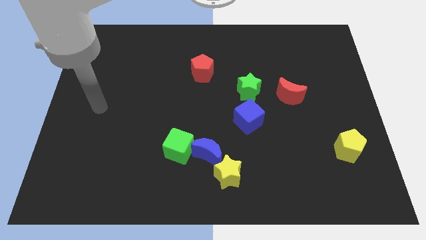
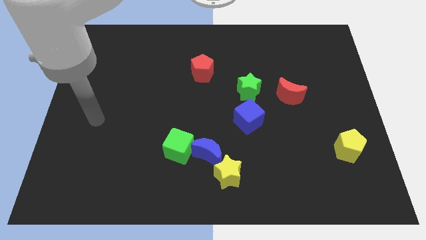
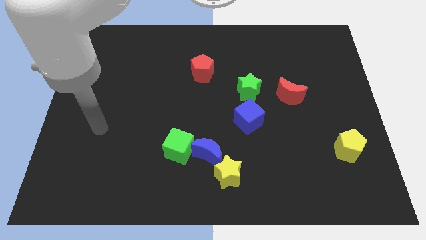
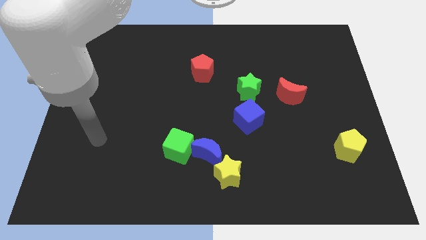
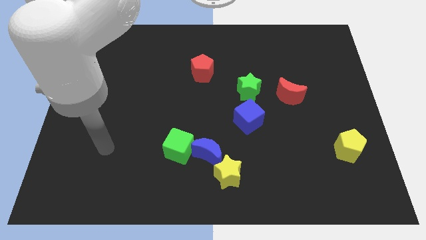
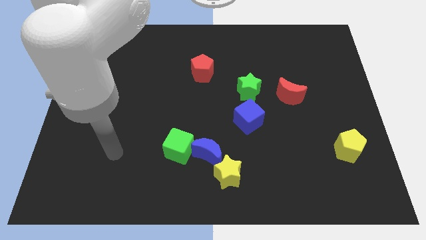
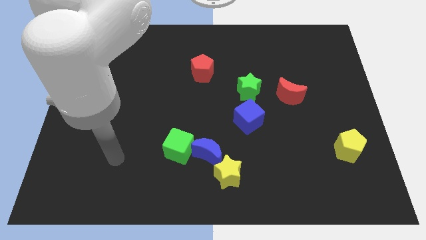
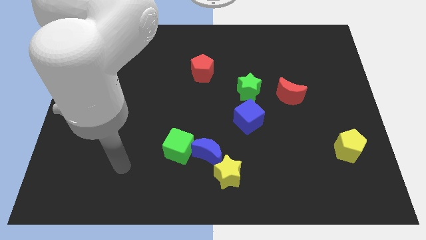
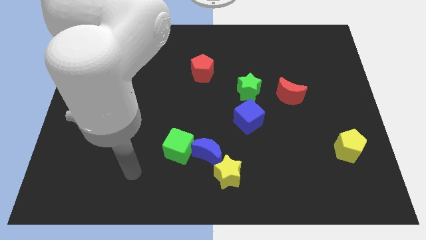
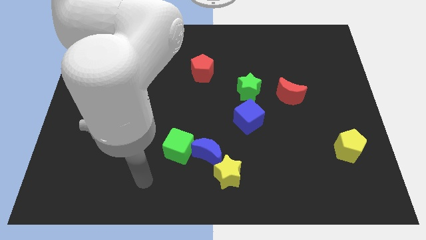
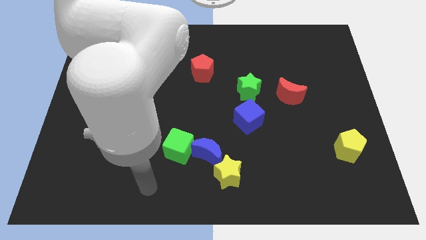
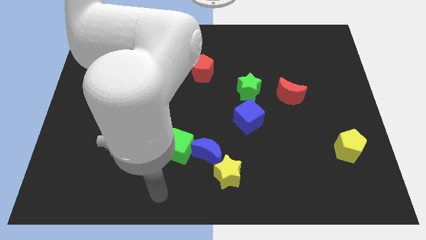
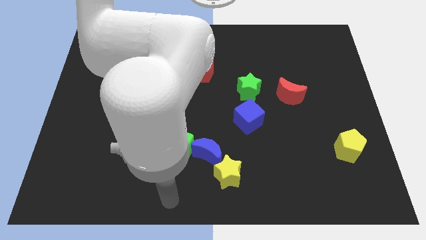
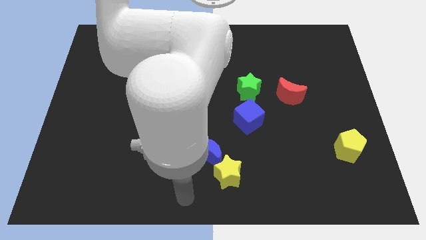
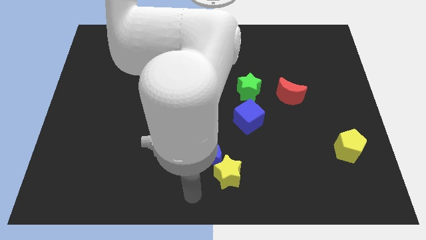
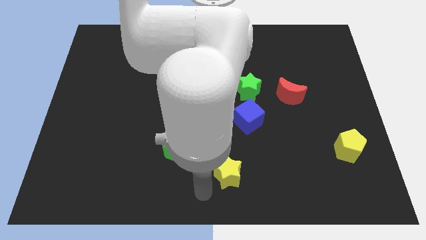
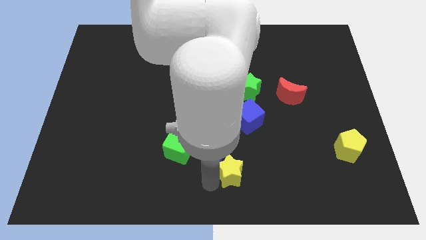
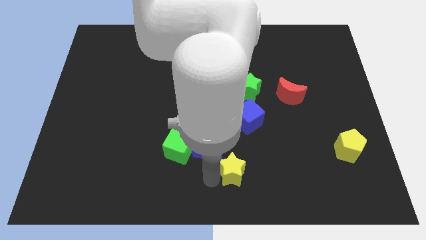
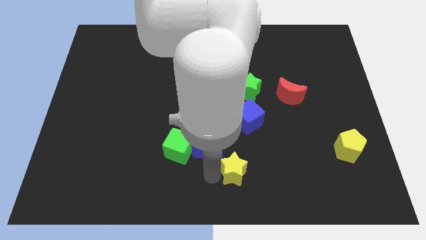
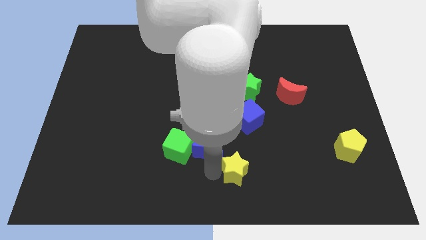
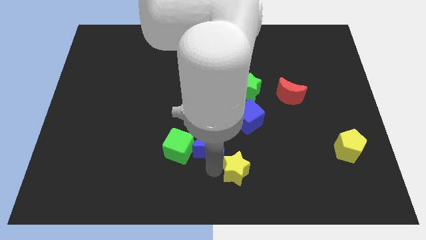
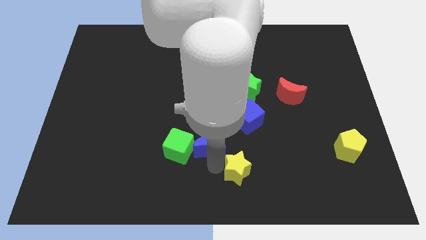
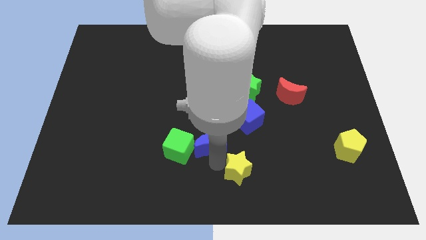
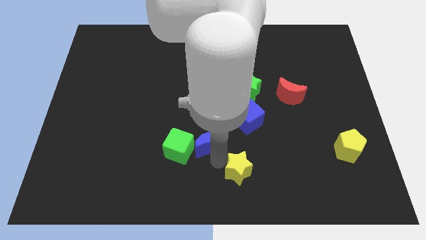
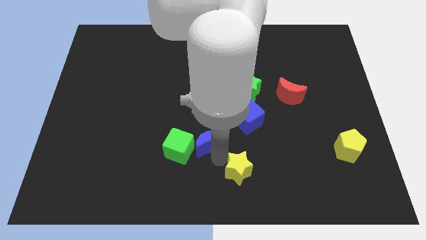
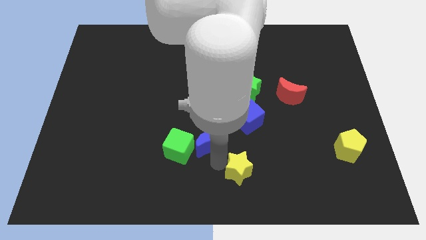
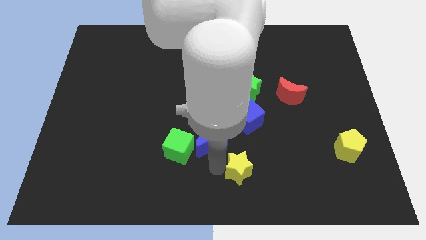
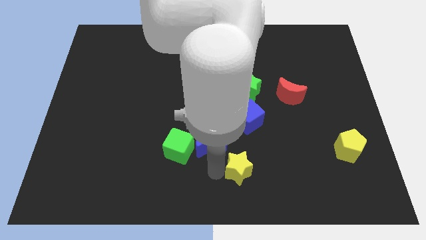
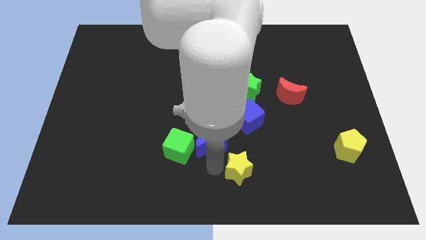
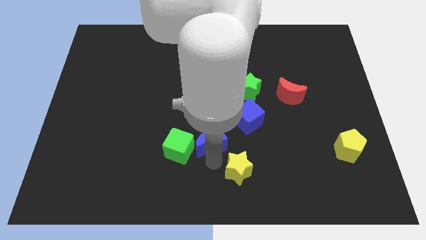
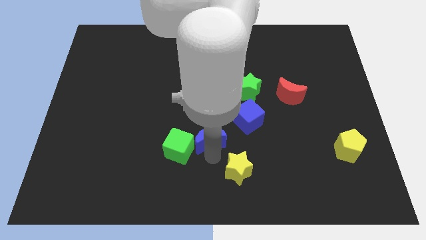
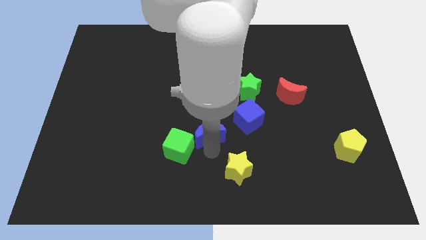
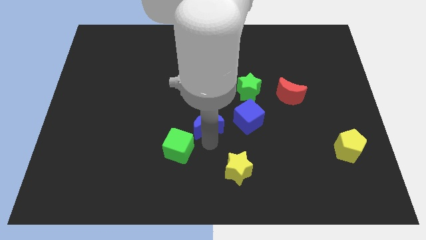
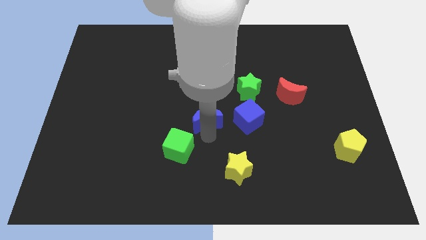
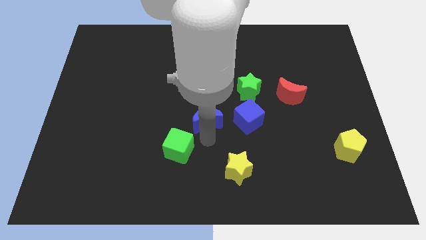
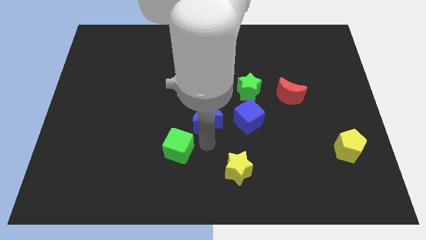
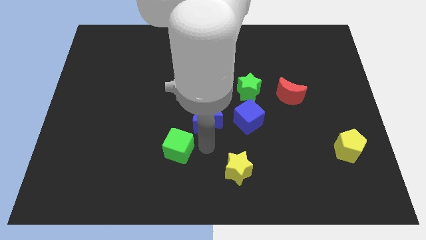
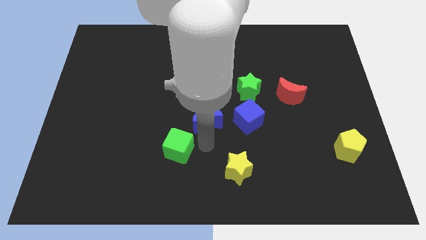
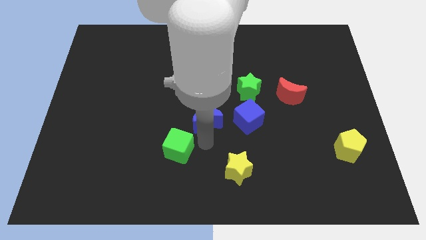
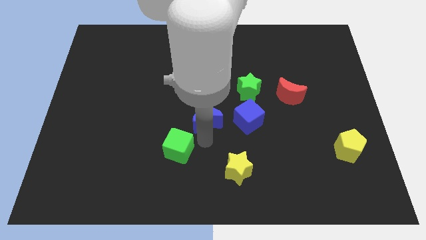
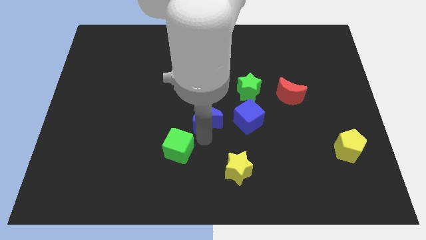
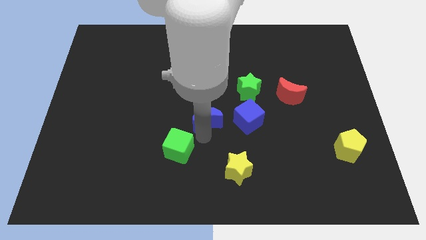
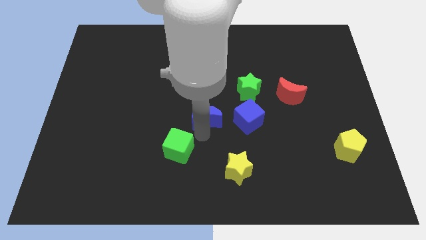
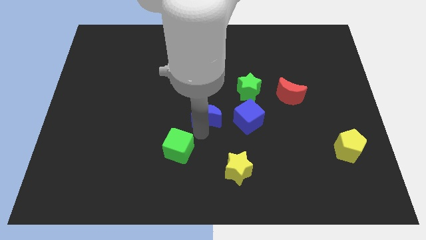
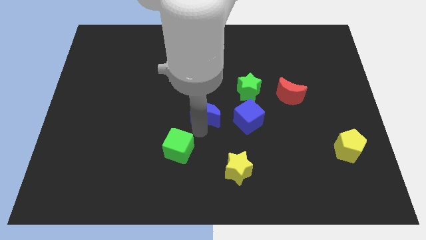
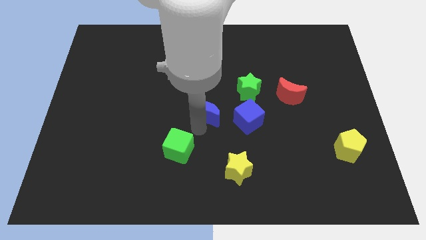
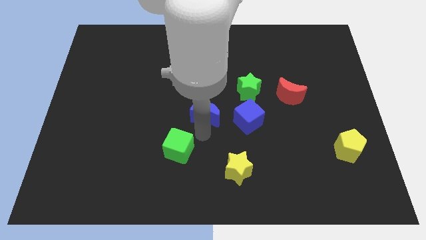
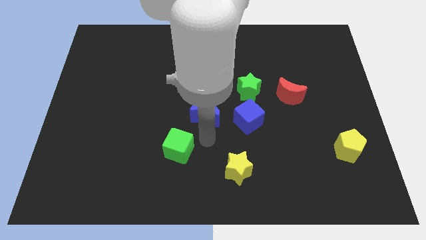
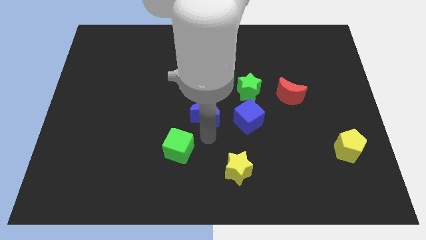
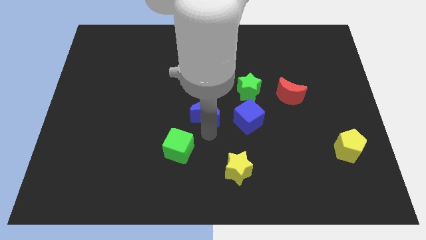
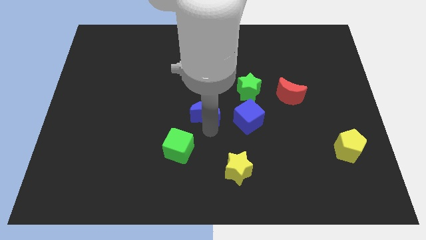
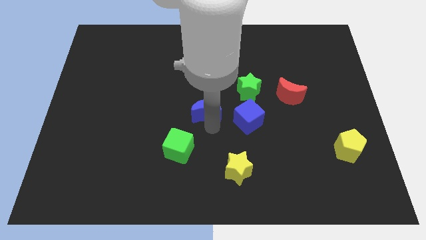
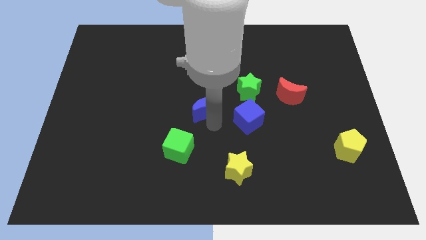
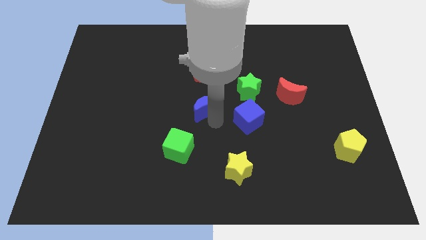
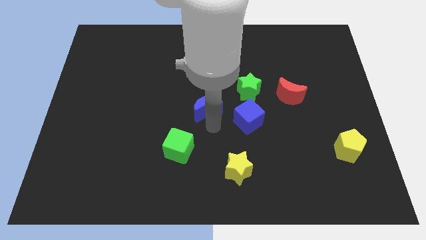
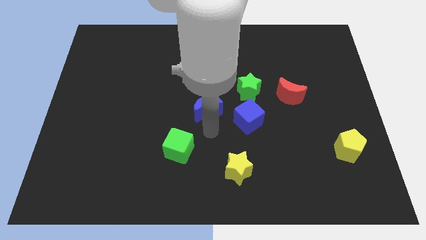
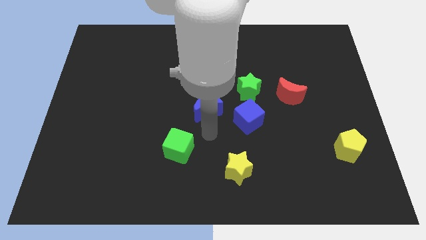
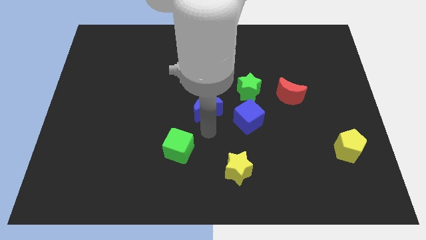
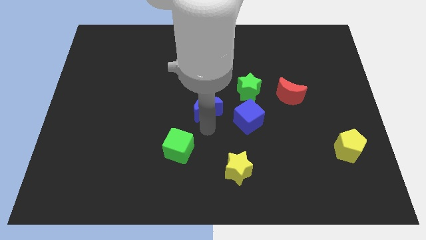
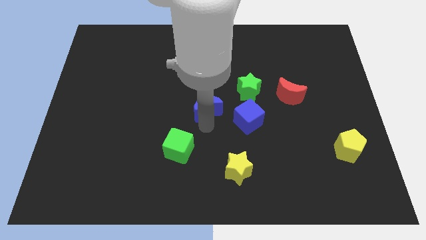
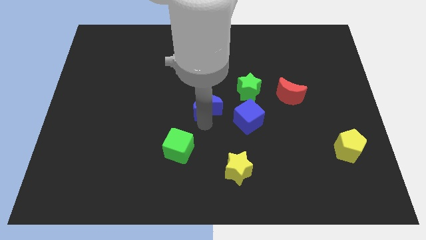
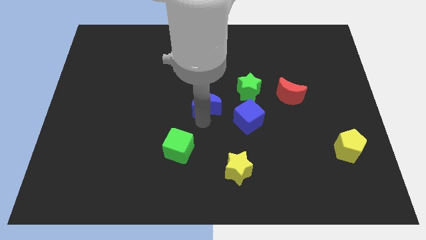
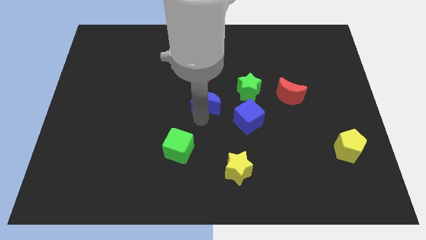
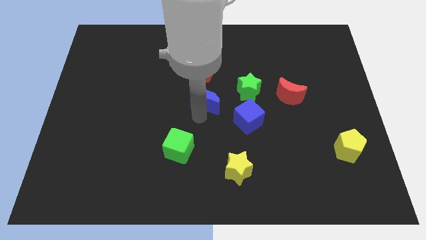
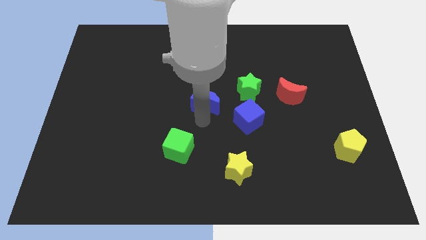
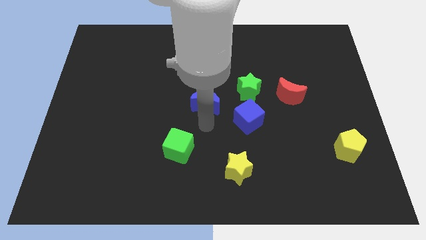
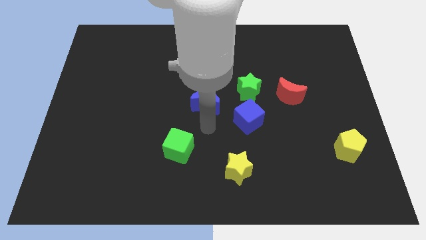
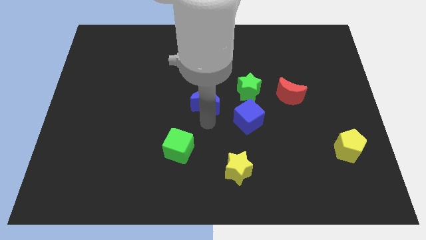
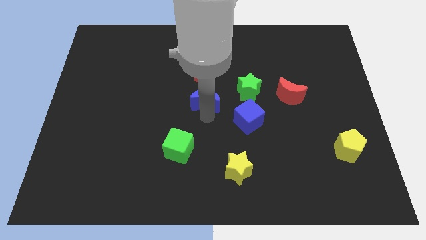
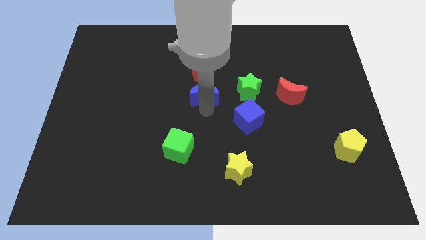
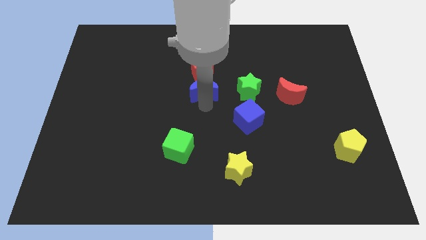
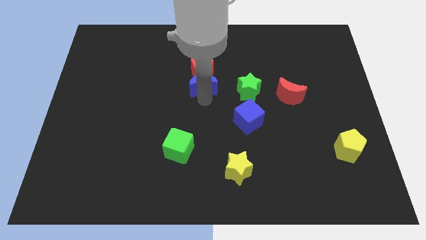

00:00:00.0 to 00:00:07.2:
push the blue moon next to the red pentagon
